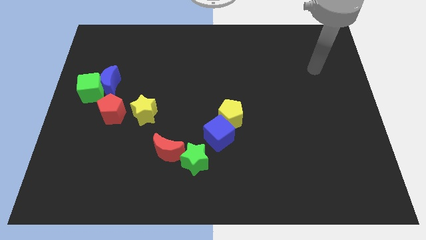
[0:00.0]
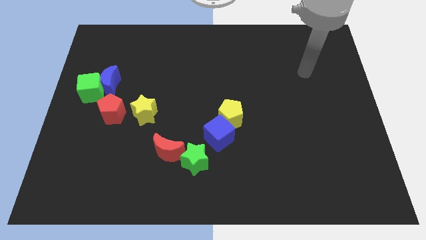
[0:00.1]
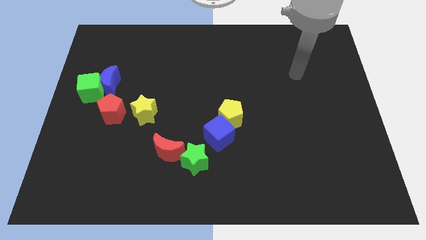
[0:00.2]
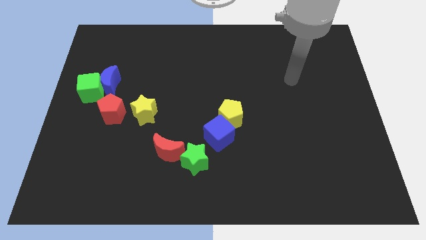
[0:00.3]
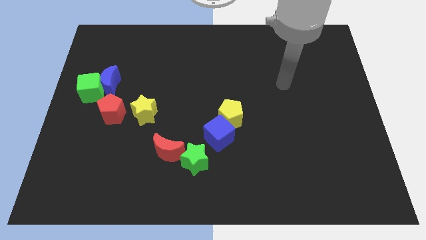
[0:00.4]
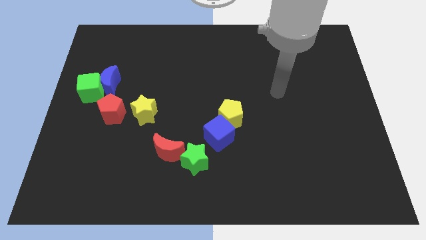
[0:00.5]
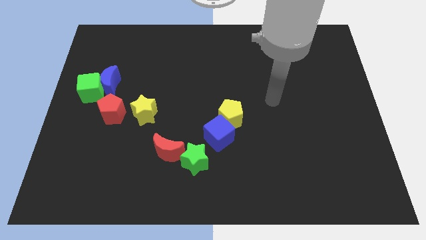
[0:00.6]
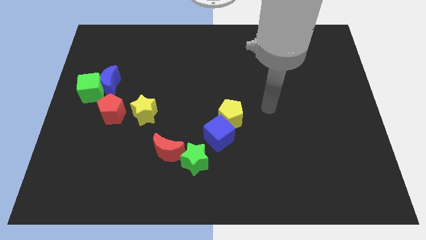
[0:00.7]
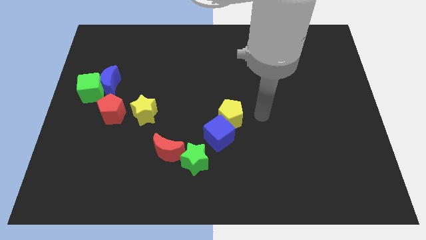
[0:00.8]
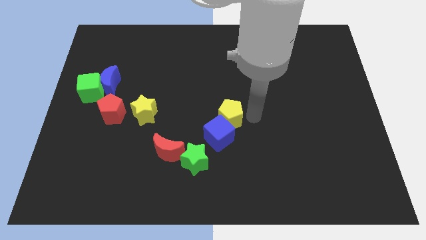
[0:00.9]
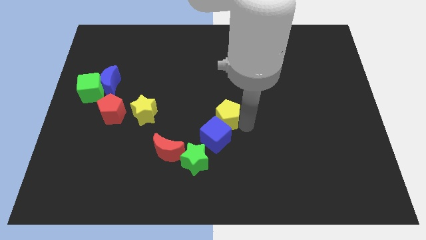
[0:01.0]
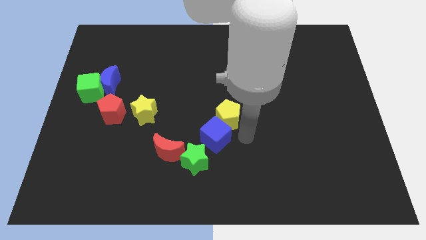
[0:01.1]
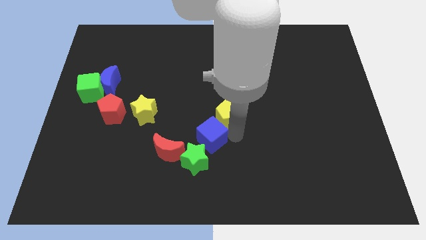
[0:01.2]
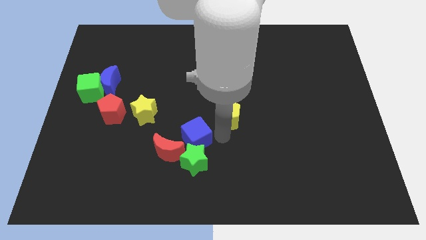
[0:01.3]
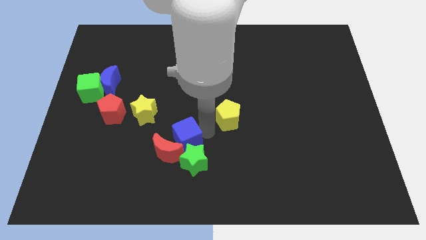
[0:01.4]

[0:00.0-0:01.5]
pull the yellow pentagon apart from the blue cube

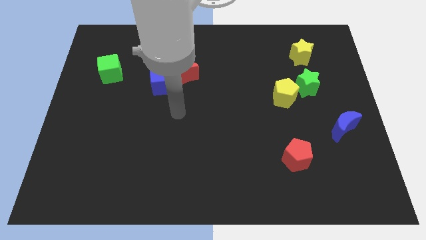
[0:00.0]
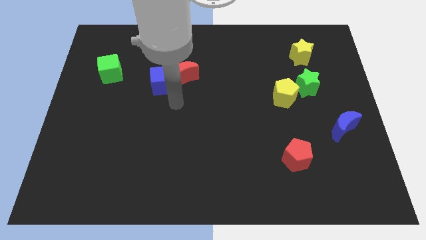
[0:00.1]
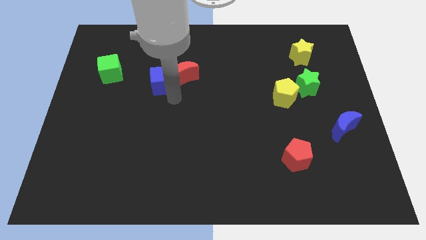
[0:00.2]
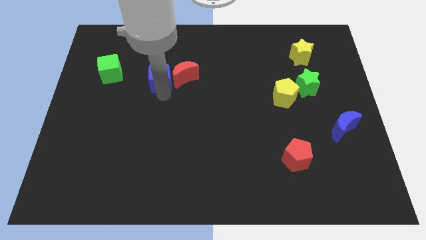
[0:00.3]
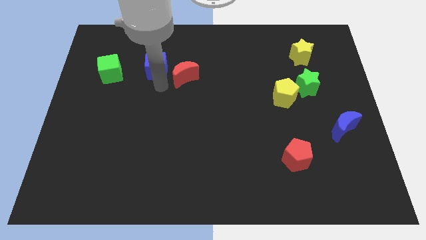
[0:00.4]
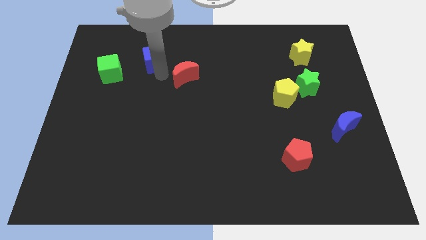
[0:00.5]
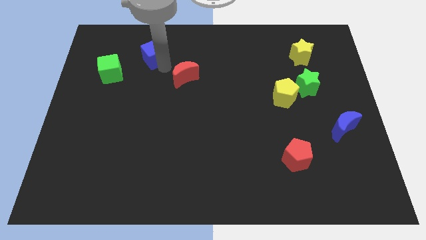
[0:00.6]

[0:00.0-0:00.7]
pull the red moon apart from the blue cube

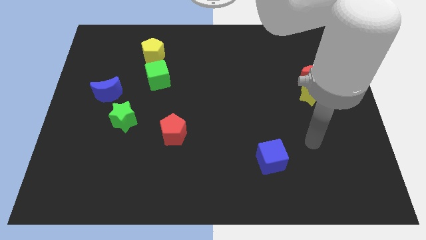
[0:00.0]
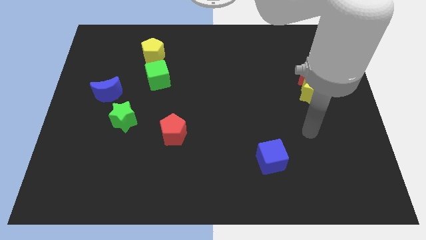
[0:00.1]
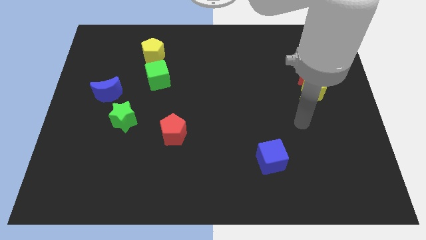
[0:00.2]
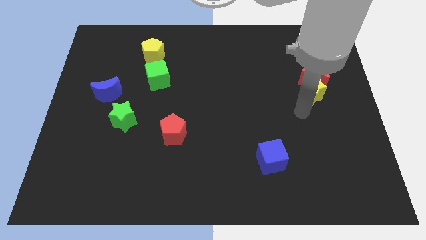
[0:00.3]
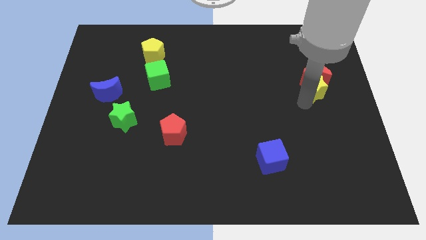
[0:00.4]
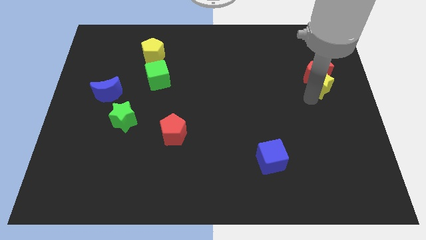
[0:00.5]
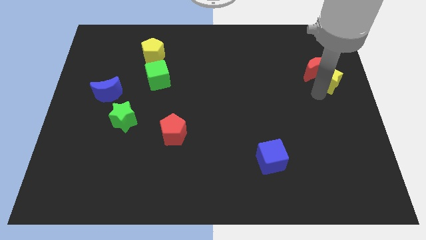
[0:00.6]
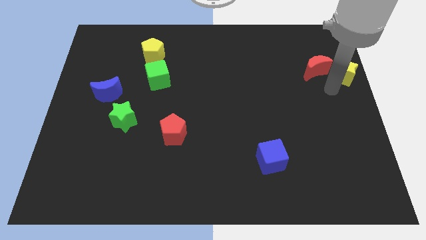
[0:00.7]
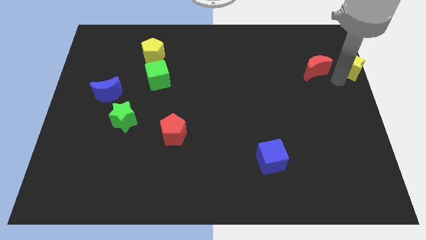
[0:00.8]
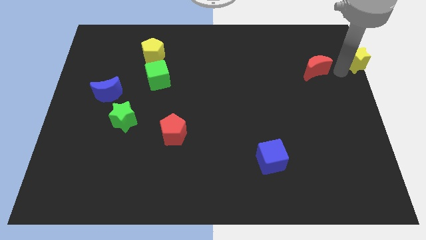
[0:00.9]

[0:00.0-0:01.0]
separate the red moon from the yellow star

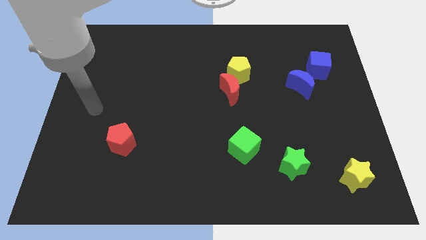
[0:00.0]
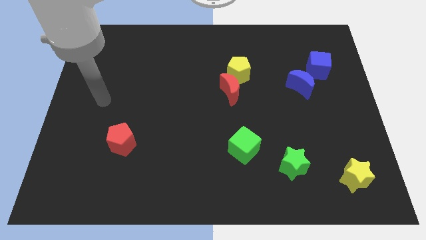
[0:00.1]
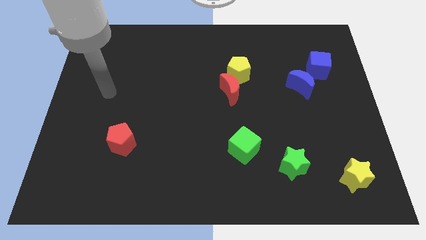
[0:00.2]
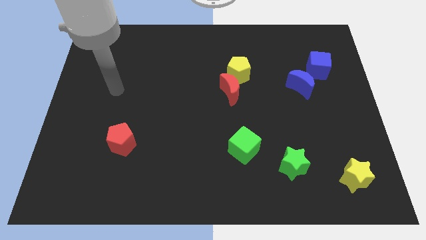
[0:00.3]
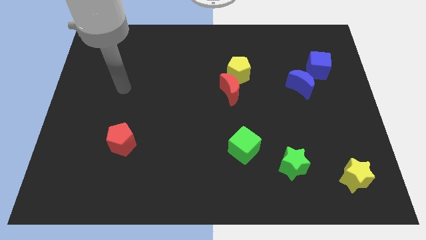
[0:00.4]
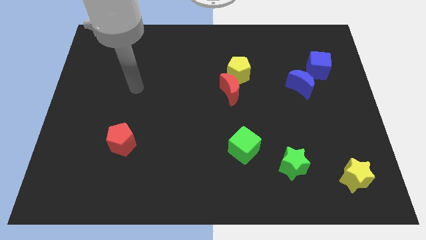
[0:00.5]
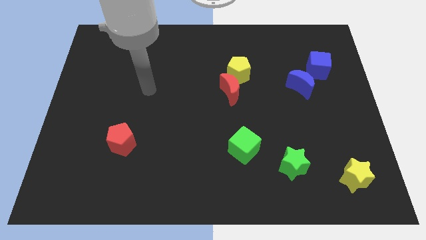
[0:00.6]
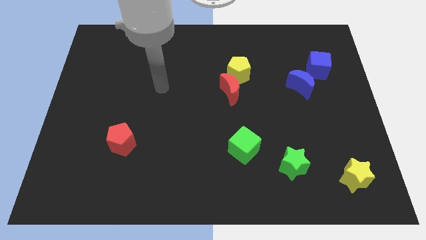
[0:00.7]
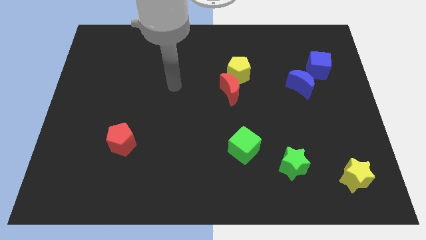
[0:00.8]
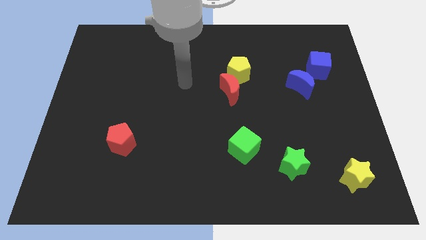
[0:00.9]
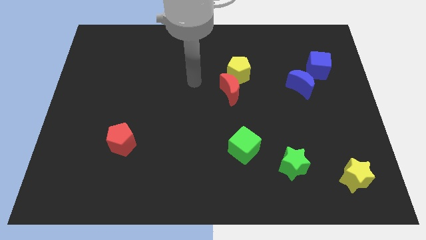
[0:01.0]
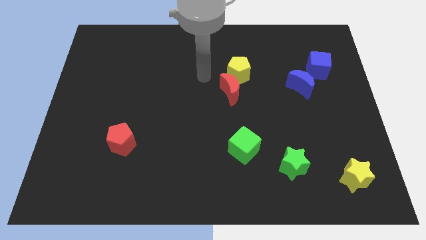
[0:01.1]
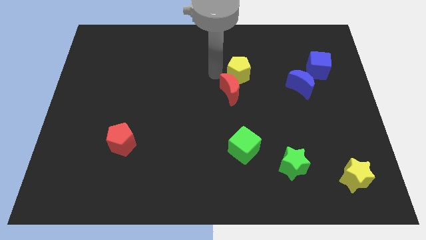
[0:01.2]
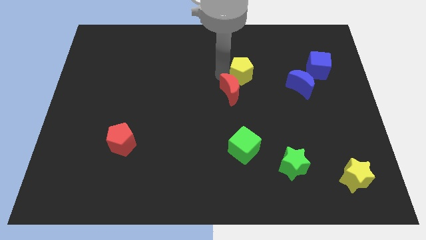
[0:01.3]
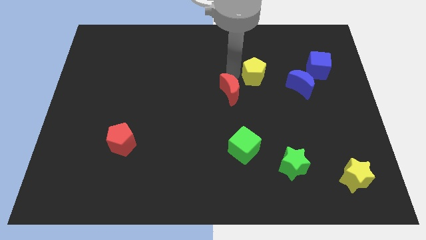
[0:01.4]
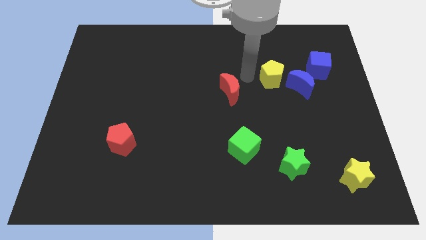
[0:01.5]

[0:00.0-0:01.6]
pull the red moon apart from the yellow pentagon

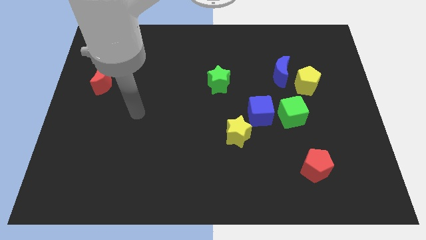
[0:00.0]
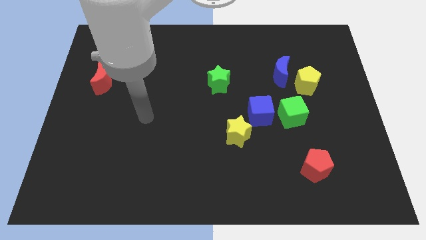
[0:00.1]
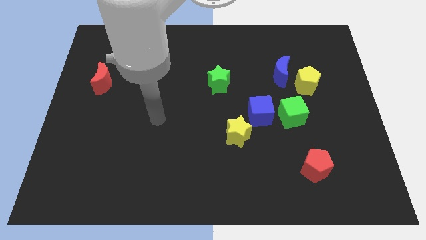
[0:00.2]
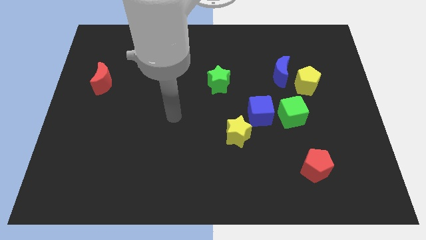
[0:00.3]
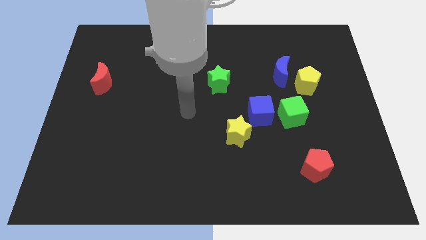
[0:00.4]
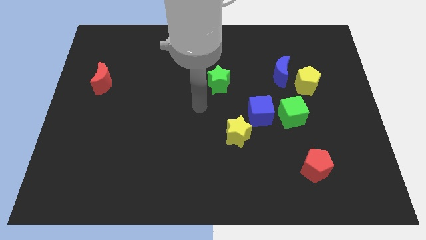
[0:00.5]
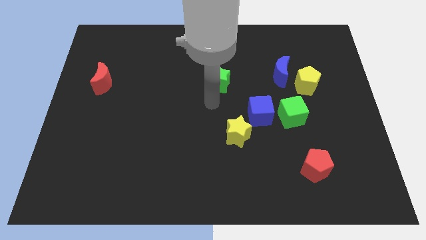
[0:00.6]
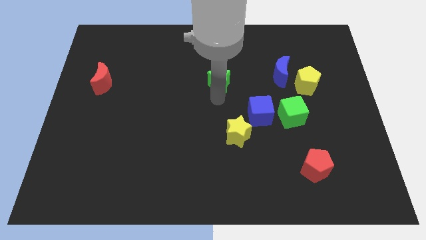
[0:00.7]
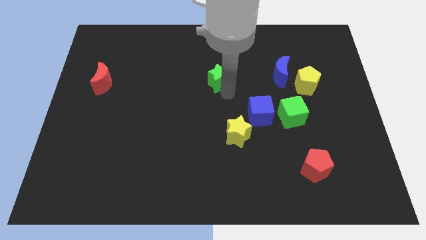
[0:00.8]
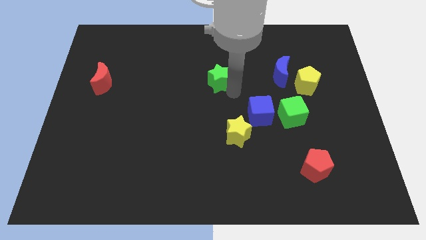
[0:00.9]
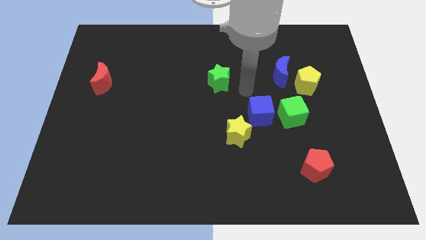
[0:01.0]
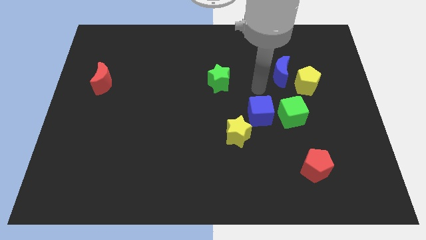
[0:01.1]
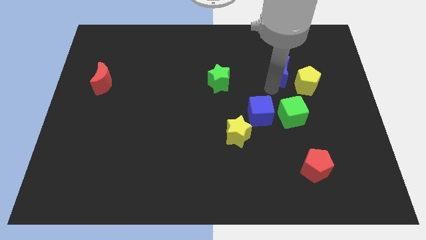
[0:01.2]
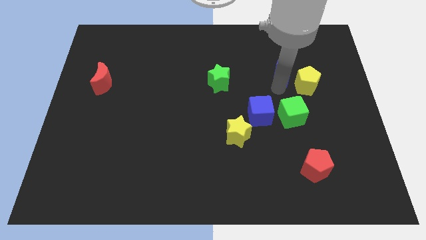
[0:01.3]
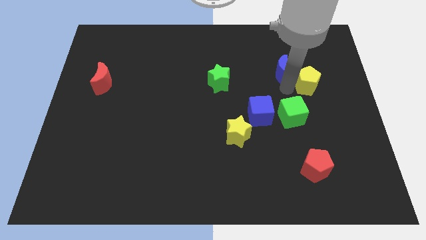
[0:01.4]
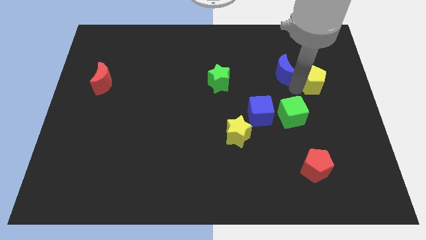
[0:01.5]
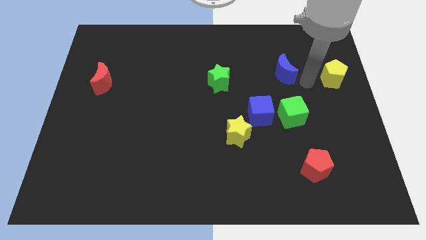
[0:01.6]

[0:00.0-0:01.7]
move the blue moon away from the yellow pentagon

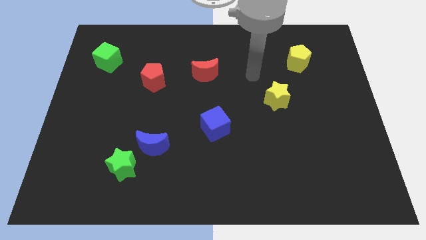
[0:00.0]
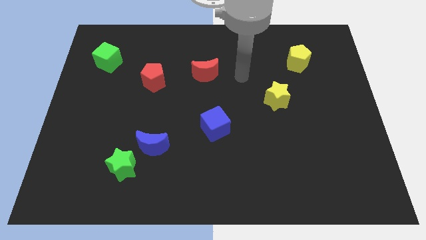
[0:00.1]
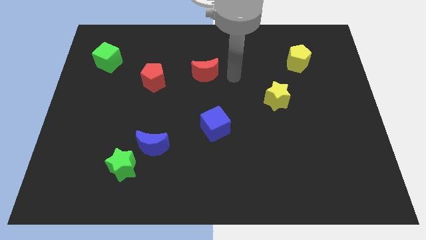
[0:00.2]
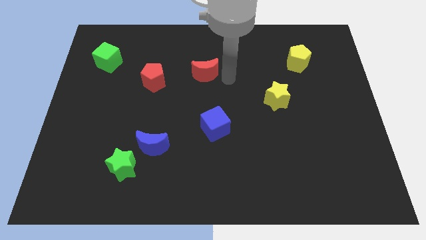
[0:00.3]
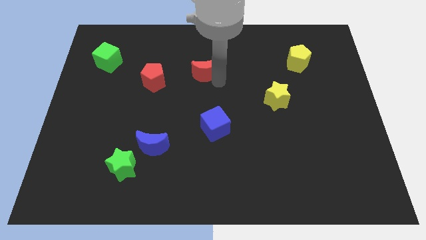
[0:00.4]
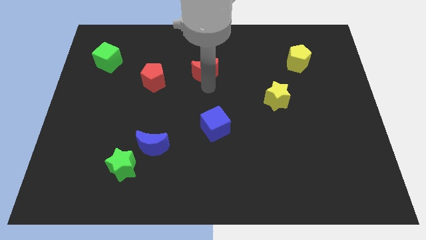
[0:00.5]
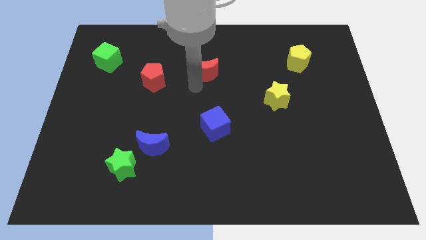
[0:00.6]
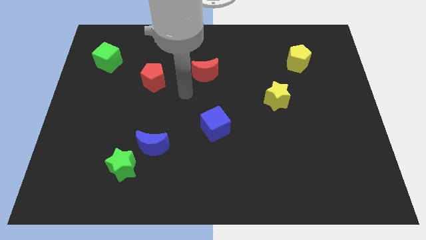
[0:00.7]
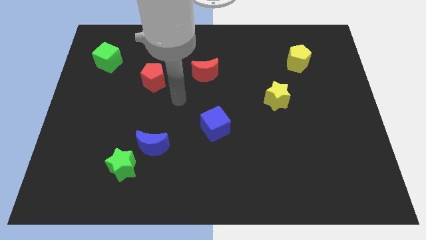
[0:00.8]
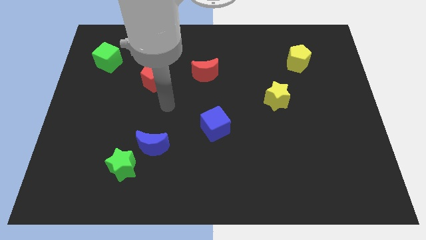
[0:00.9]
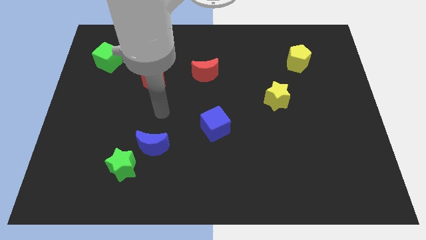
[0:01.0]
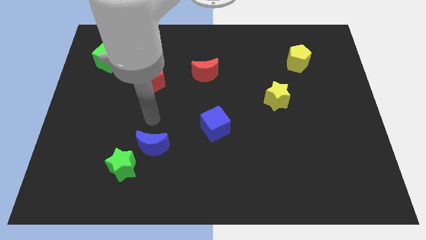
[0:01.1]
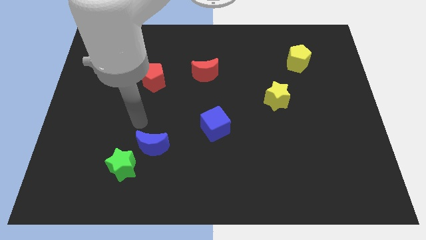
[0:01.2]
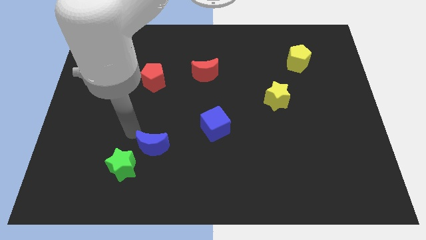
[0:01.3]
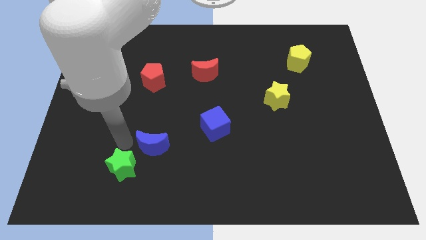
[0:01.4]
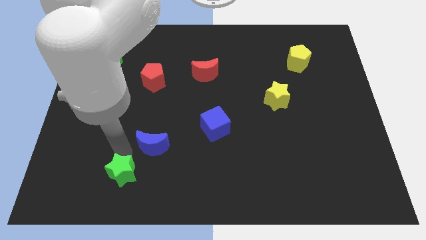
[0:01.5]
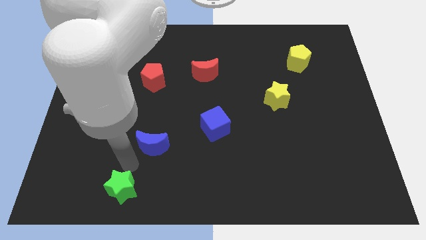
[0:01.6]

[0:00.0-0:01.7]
separate the blue moon from the green star

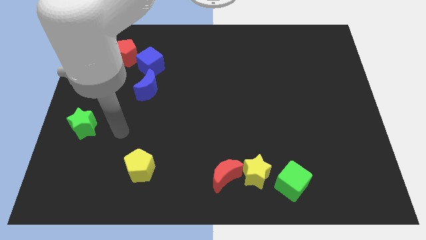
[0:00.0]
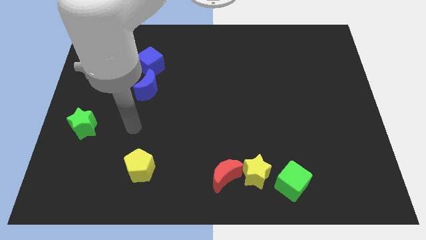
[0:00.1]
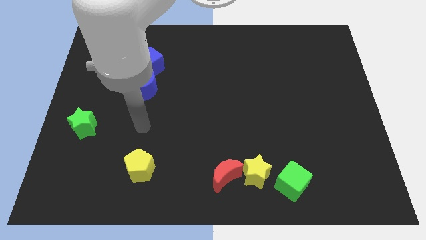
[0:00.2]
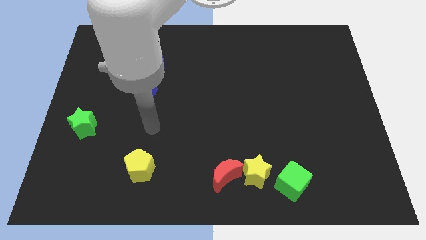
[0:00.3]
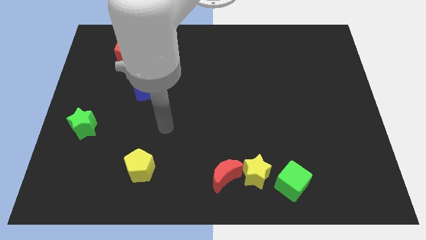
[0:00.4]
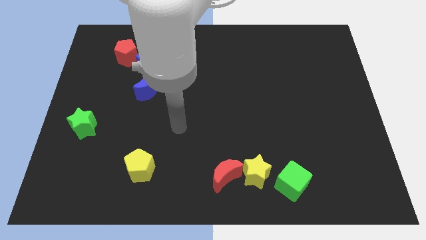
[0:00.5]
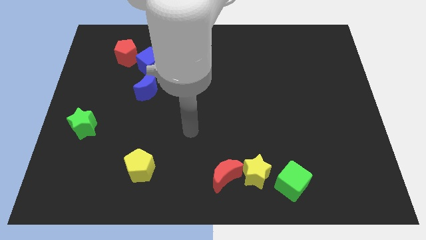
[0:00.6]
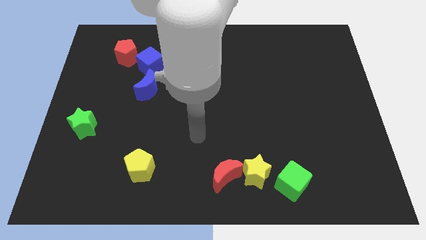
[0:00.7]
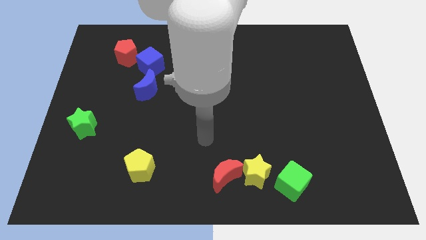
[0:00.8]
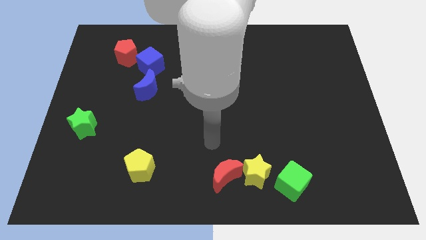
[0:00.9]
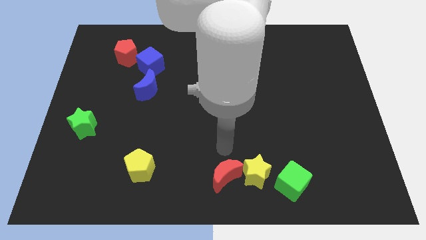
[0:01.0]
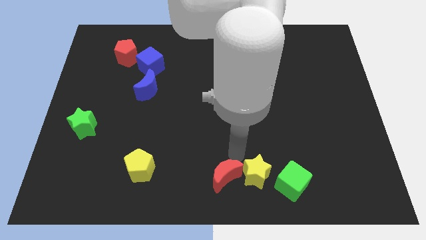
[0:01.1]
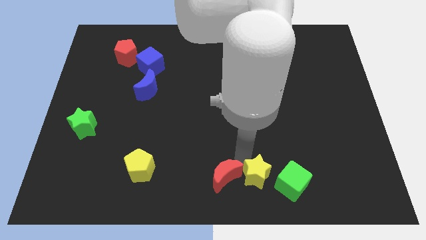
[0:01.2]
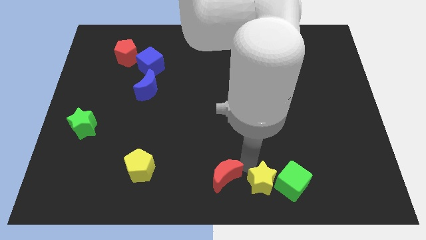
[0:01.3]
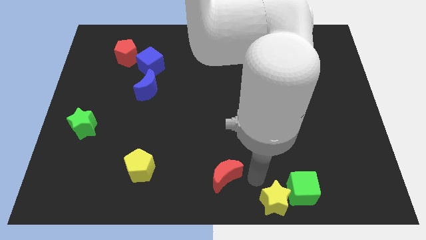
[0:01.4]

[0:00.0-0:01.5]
pull the red moon apart from the yellow star
